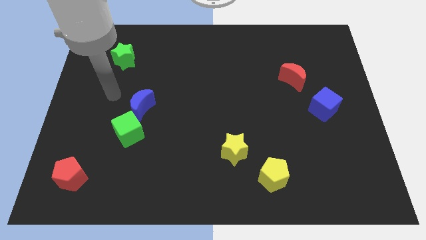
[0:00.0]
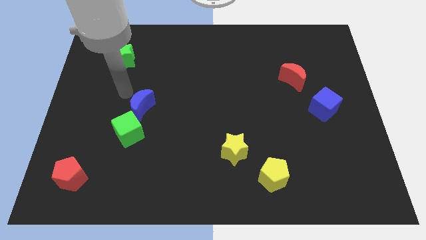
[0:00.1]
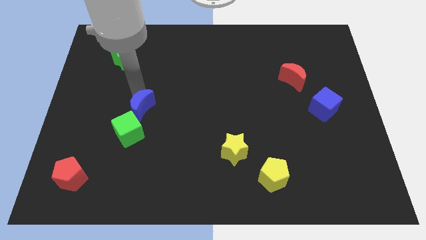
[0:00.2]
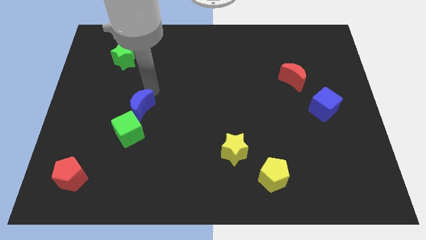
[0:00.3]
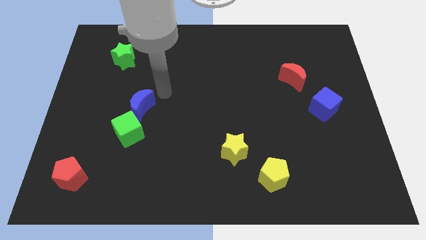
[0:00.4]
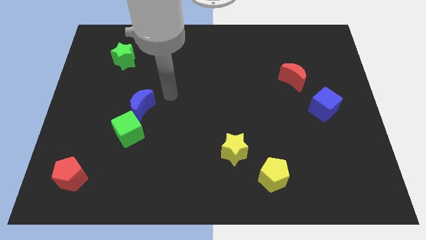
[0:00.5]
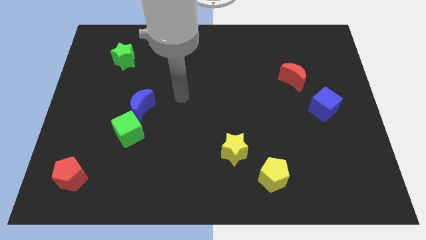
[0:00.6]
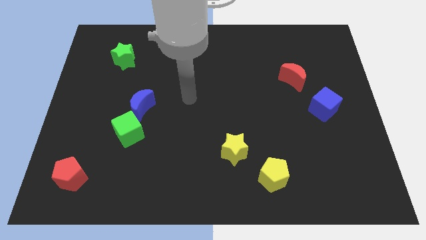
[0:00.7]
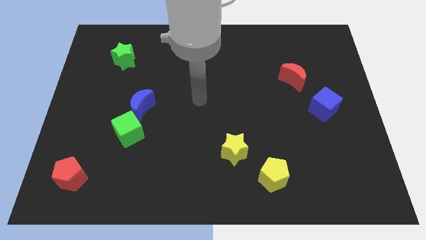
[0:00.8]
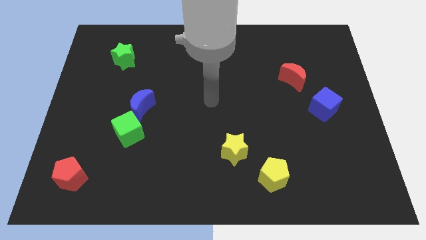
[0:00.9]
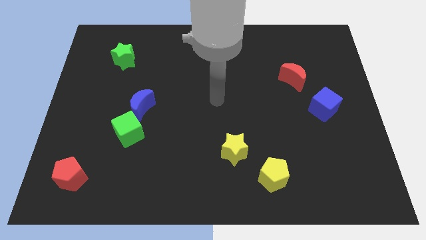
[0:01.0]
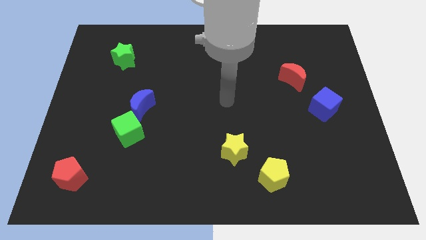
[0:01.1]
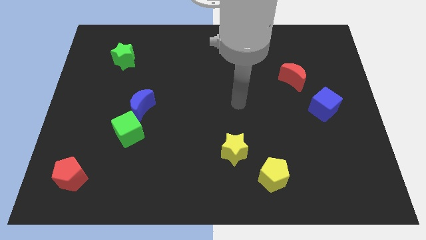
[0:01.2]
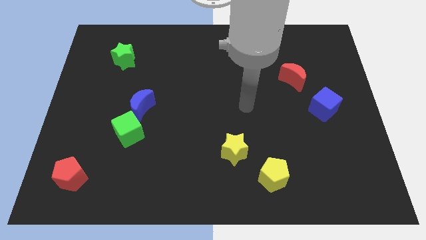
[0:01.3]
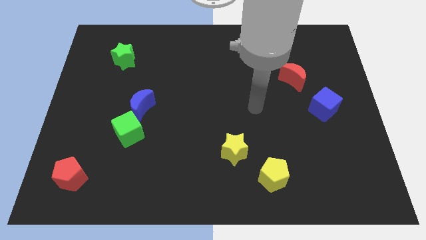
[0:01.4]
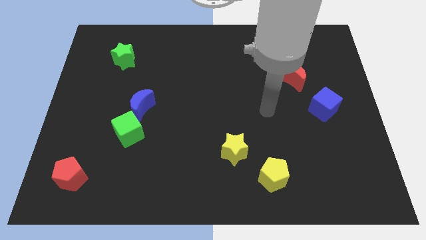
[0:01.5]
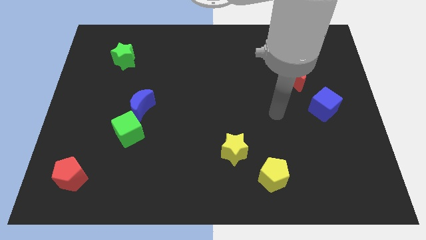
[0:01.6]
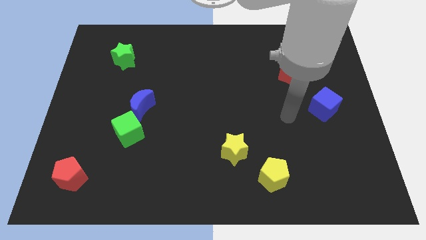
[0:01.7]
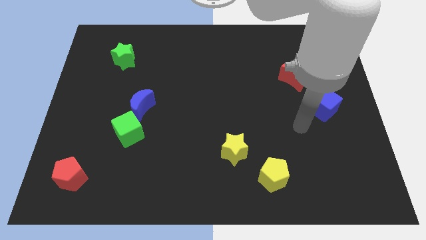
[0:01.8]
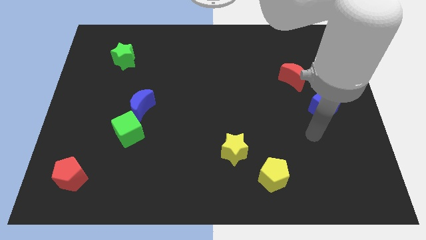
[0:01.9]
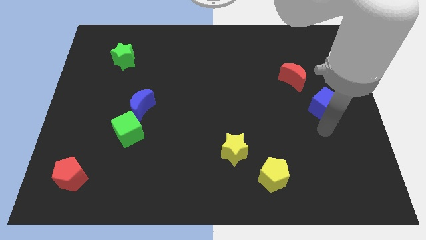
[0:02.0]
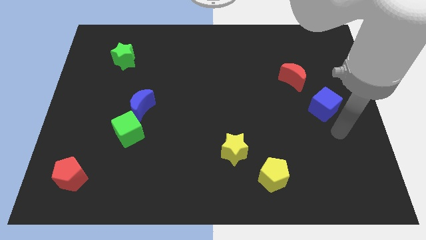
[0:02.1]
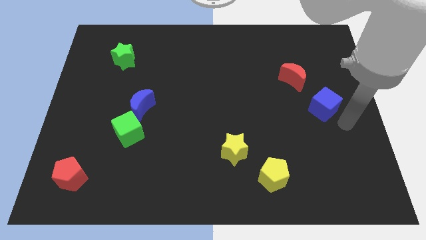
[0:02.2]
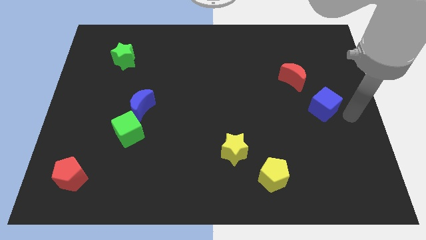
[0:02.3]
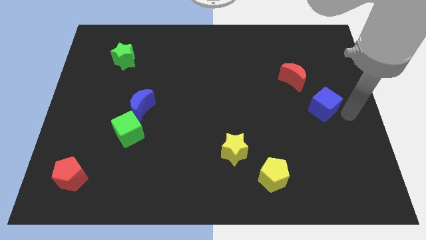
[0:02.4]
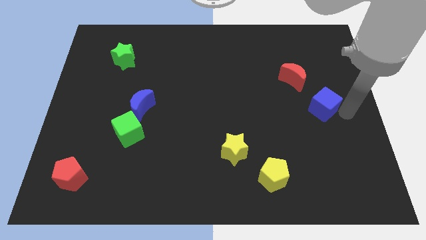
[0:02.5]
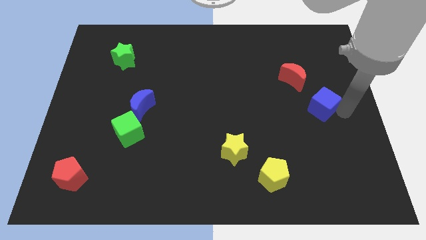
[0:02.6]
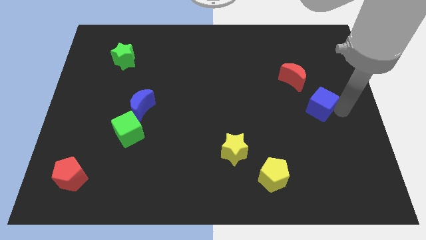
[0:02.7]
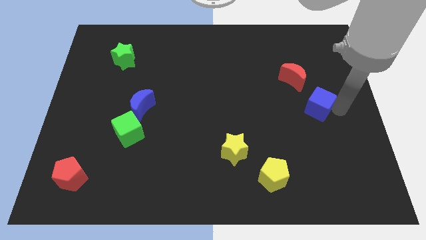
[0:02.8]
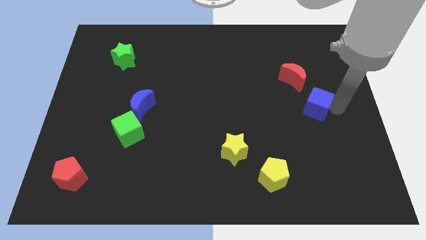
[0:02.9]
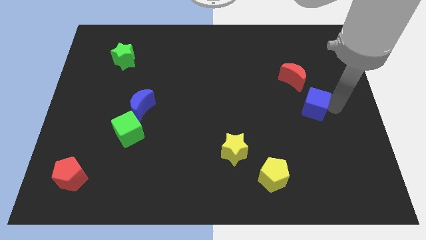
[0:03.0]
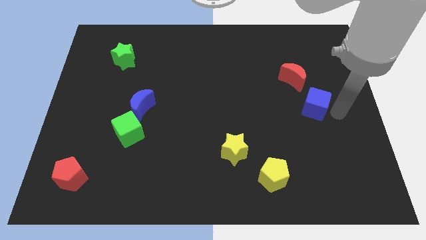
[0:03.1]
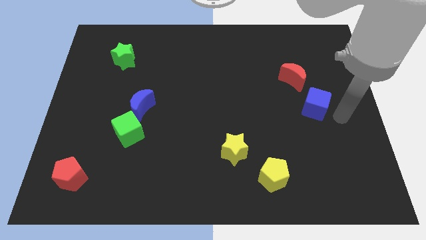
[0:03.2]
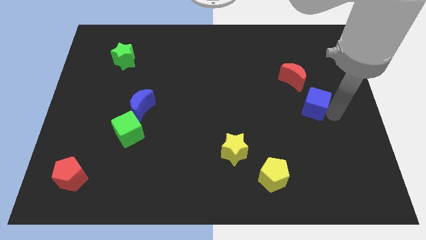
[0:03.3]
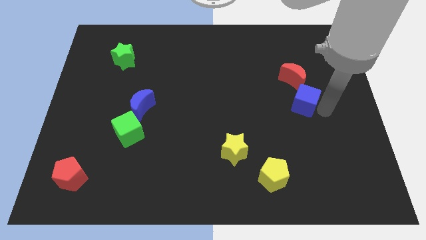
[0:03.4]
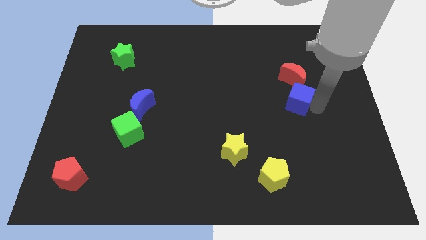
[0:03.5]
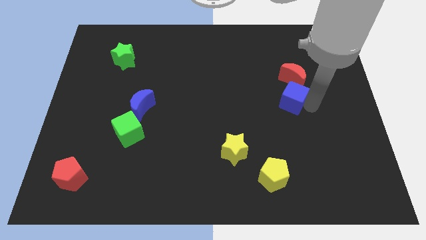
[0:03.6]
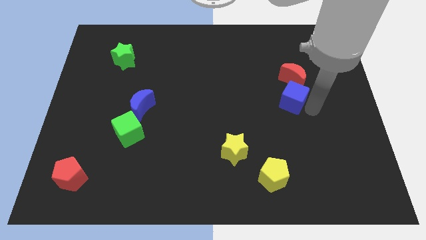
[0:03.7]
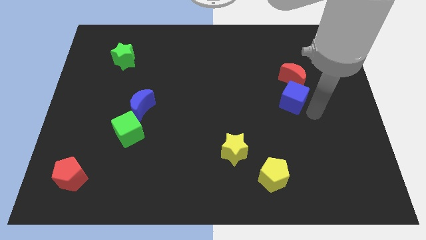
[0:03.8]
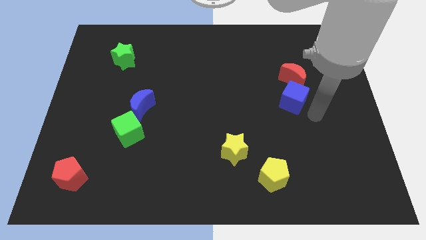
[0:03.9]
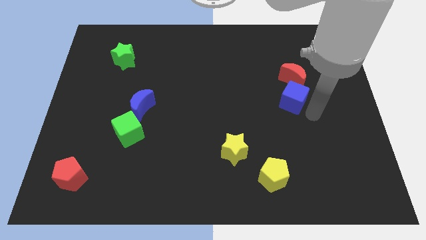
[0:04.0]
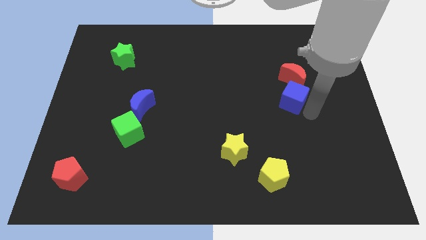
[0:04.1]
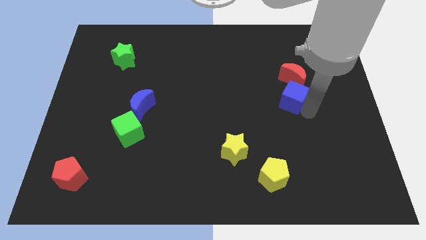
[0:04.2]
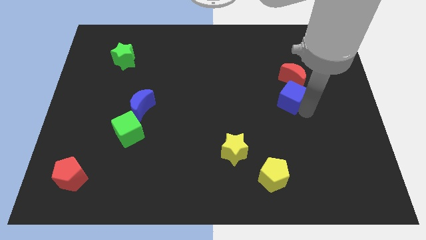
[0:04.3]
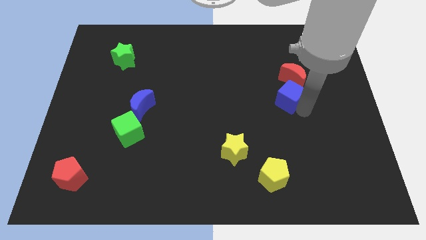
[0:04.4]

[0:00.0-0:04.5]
move the blue cube upwards and left diagonally somewhat

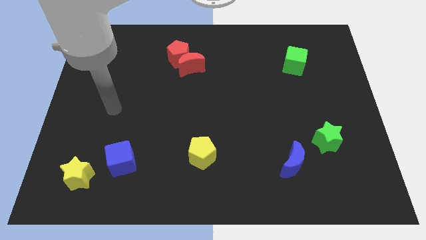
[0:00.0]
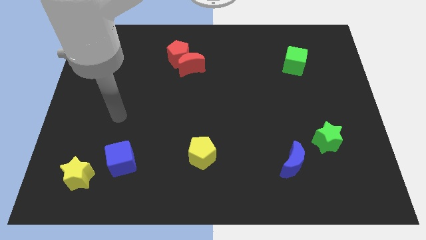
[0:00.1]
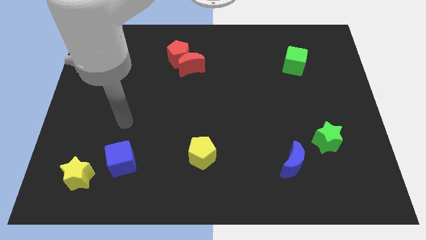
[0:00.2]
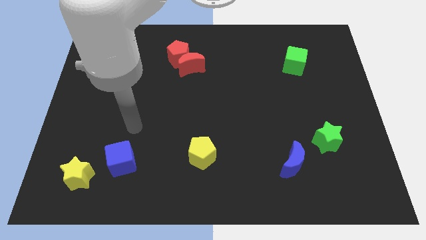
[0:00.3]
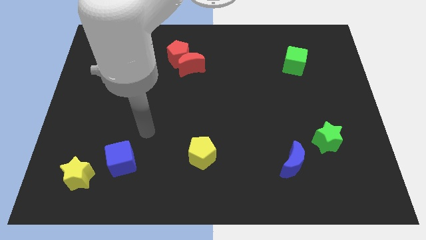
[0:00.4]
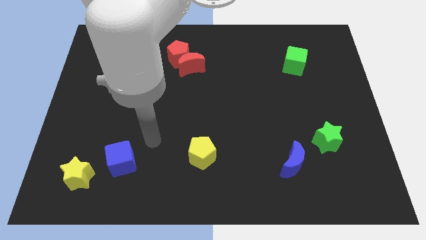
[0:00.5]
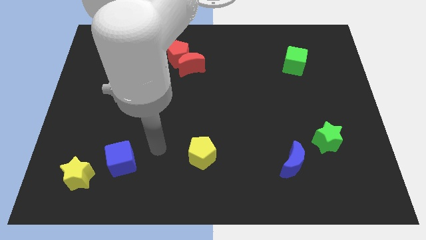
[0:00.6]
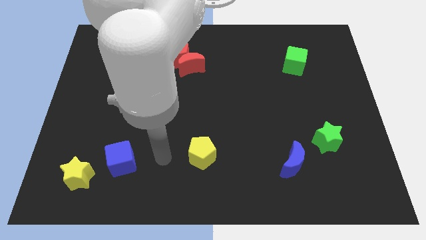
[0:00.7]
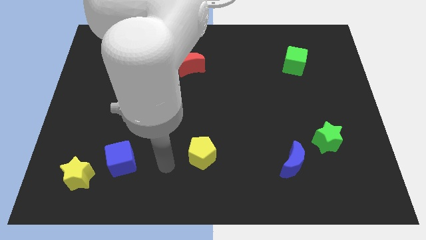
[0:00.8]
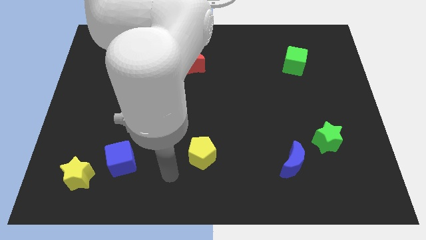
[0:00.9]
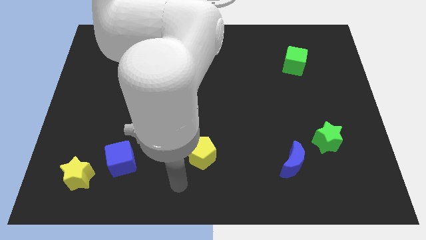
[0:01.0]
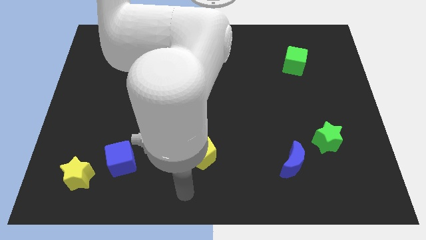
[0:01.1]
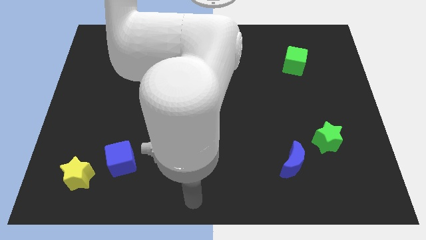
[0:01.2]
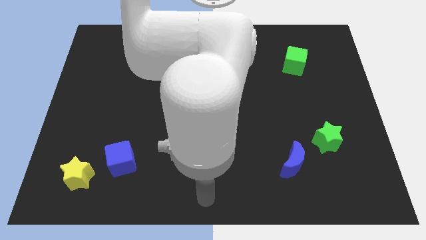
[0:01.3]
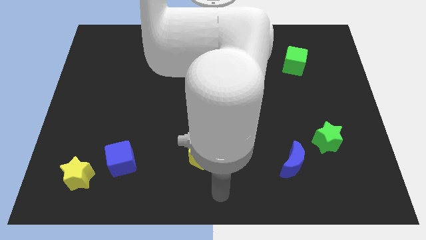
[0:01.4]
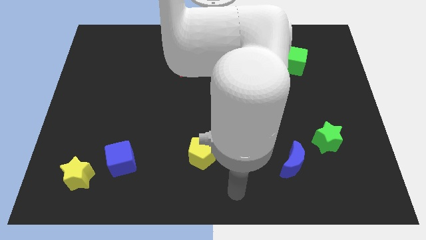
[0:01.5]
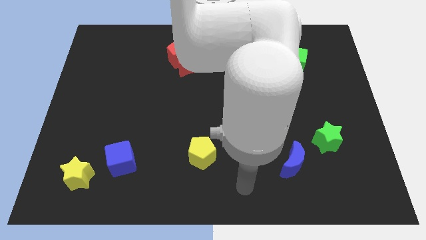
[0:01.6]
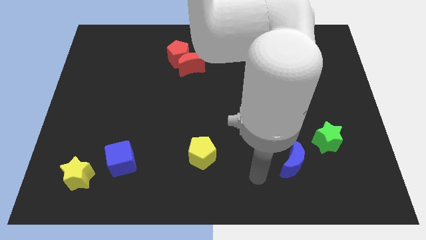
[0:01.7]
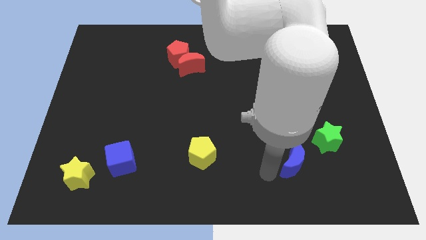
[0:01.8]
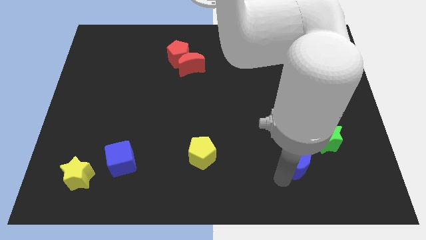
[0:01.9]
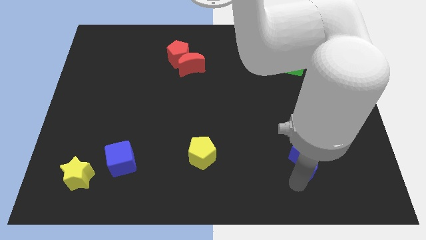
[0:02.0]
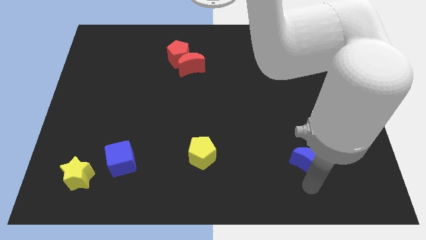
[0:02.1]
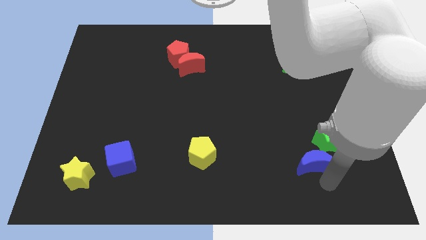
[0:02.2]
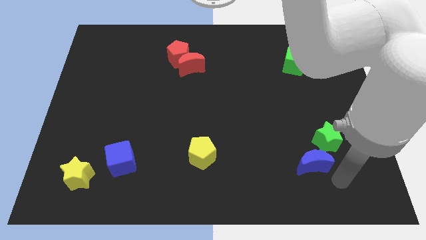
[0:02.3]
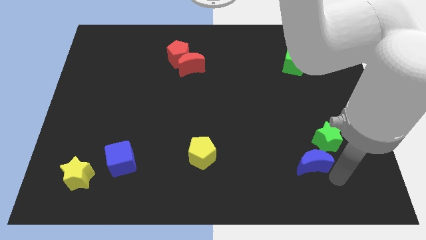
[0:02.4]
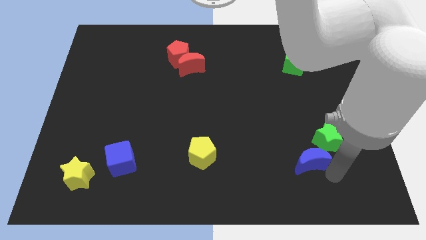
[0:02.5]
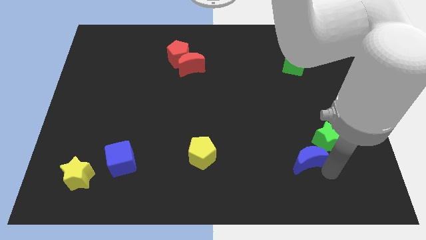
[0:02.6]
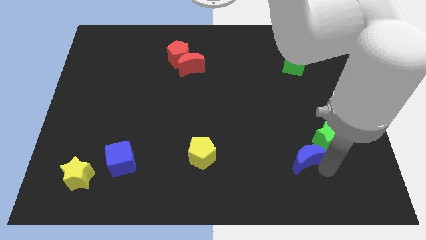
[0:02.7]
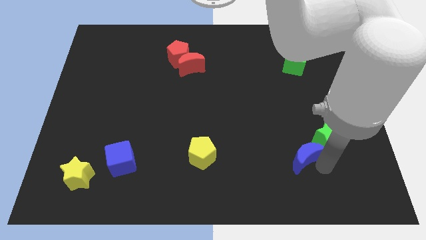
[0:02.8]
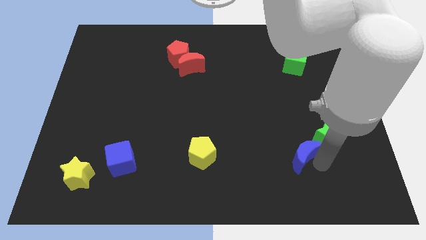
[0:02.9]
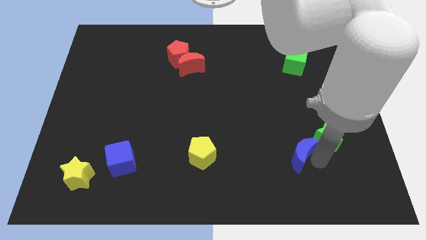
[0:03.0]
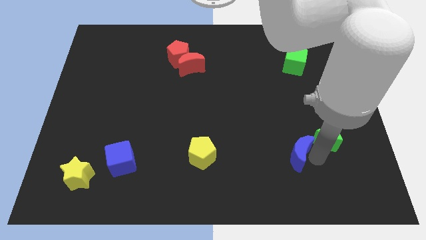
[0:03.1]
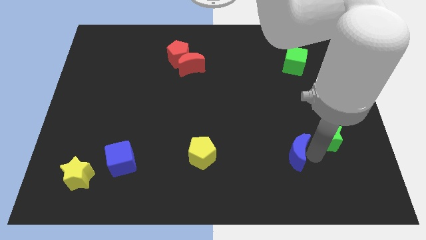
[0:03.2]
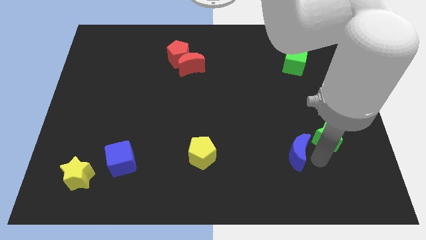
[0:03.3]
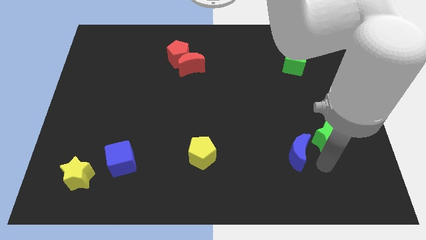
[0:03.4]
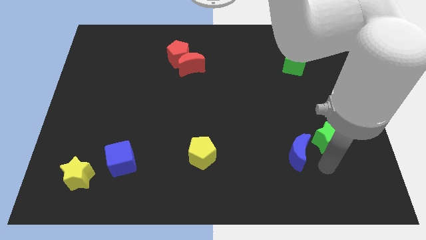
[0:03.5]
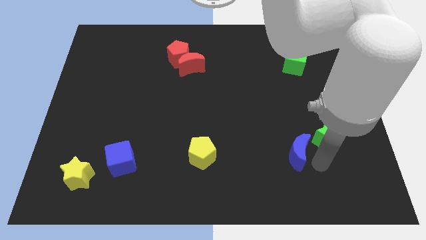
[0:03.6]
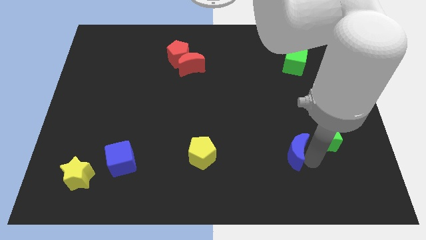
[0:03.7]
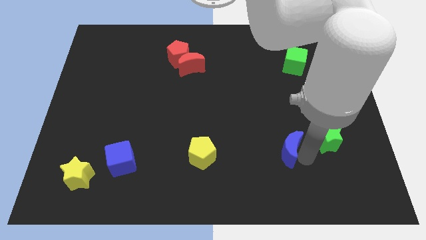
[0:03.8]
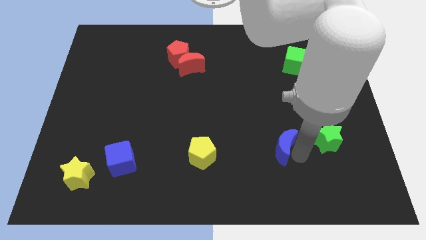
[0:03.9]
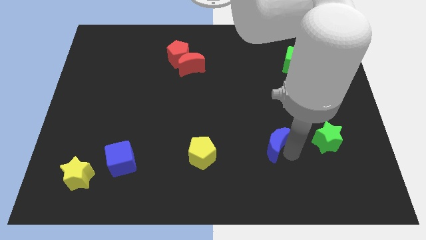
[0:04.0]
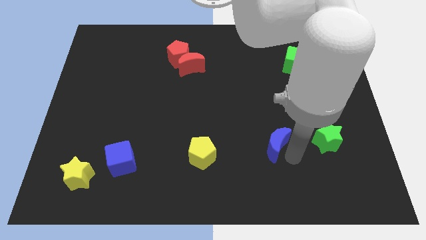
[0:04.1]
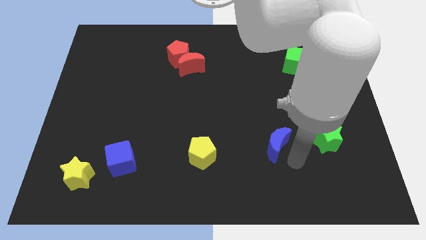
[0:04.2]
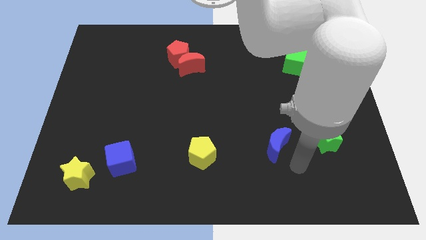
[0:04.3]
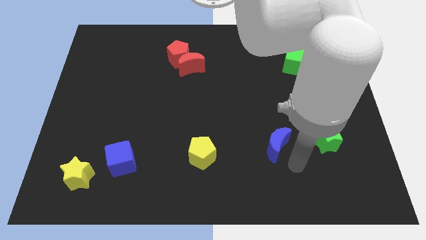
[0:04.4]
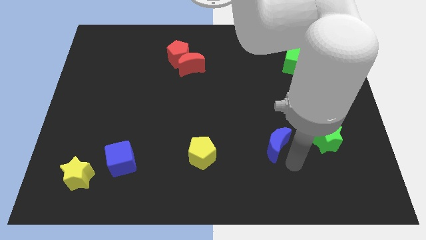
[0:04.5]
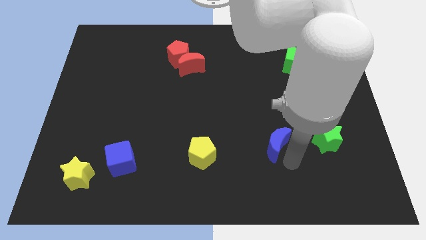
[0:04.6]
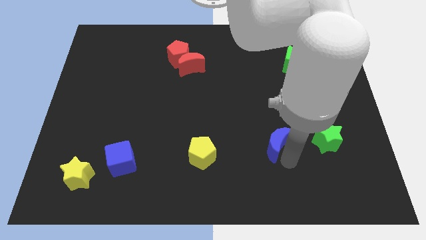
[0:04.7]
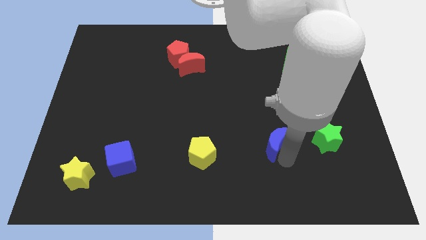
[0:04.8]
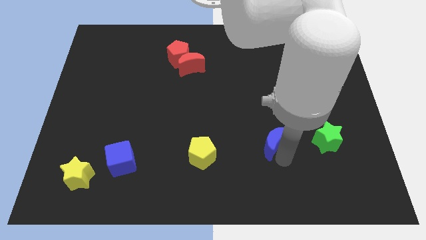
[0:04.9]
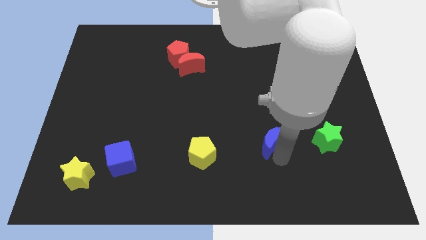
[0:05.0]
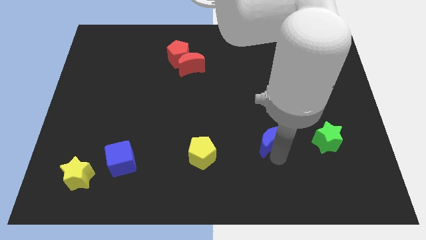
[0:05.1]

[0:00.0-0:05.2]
slightly move the blue moon diagonally upwards and to the left
